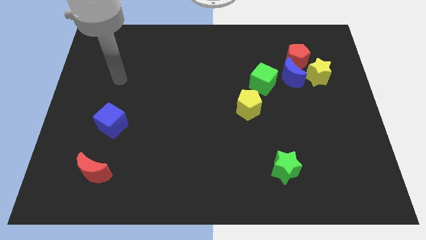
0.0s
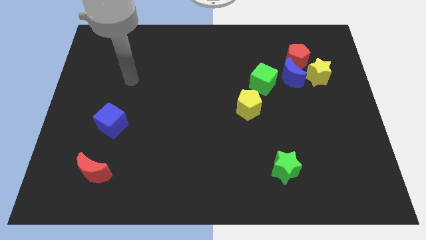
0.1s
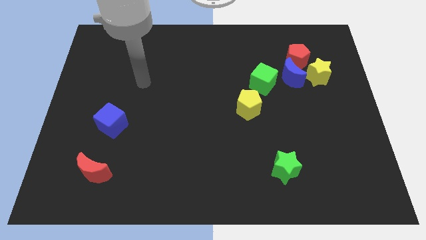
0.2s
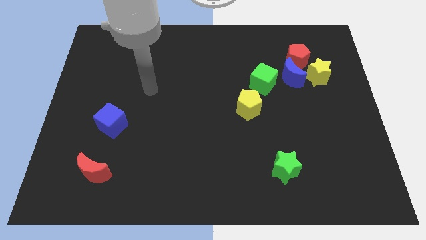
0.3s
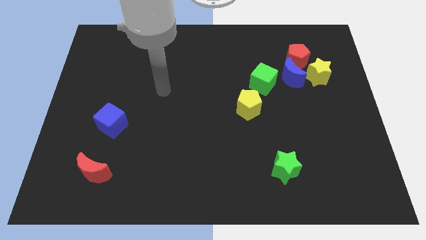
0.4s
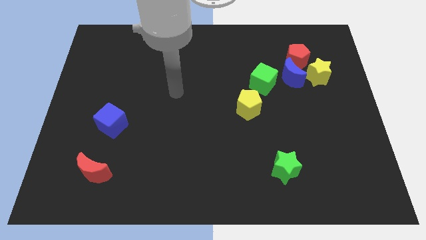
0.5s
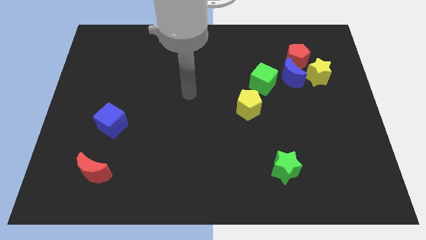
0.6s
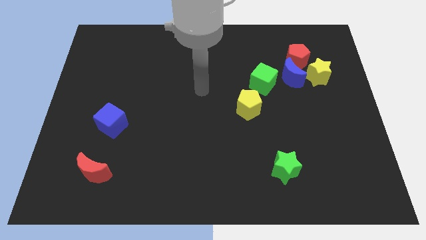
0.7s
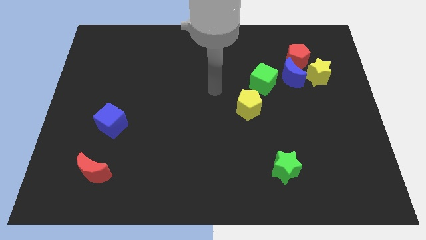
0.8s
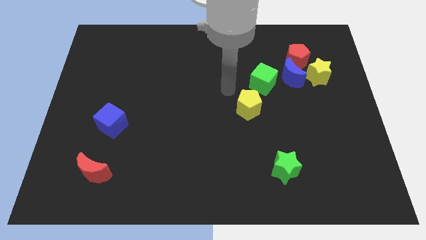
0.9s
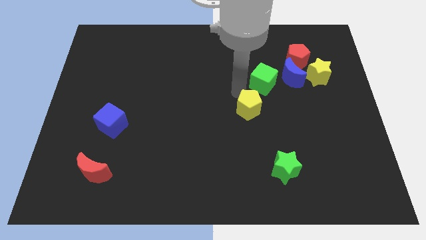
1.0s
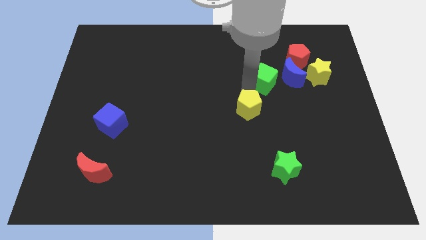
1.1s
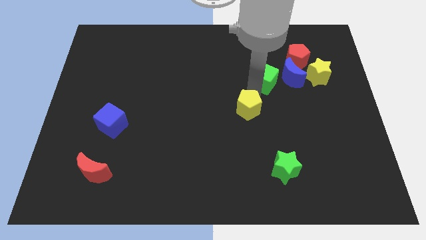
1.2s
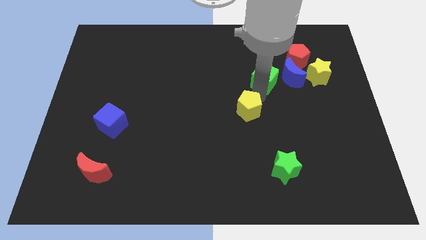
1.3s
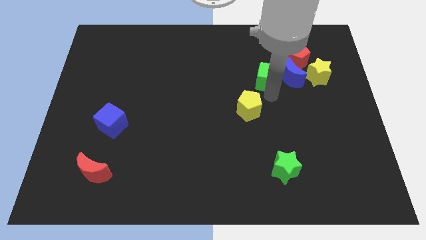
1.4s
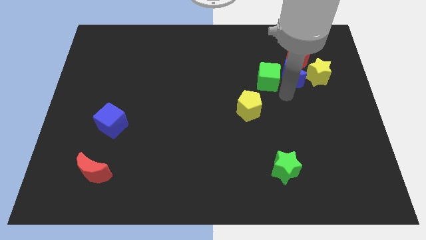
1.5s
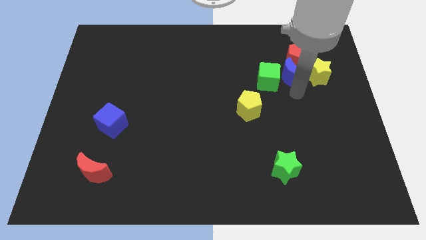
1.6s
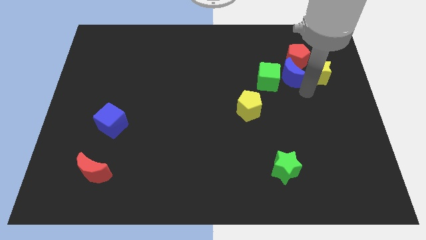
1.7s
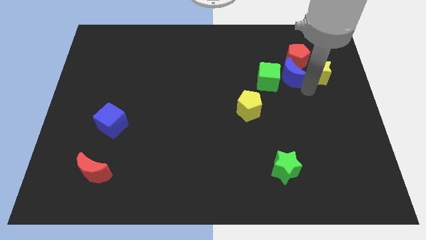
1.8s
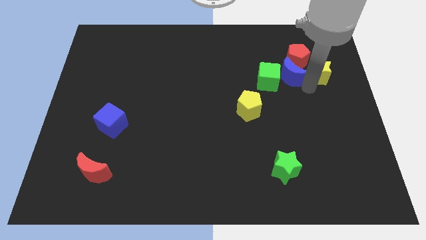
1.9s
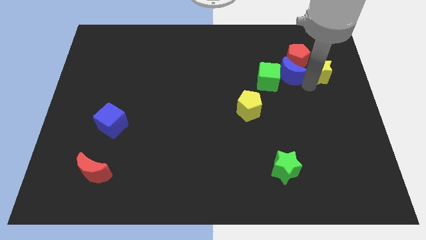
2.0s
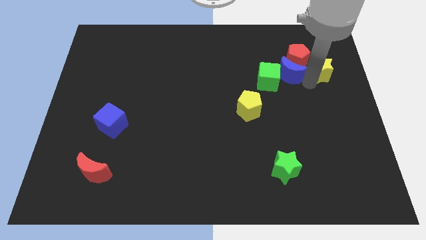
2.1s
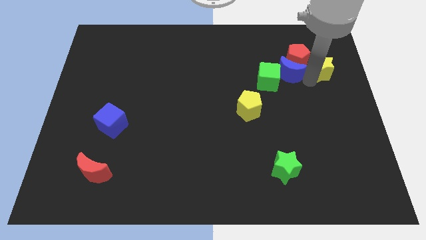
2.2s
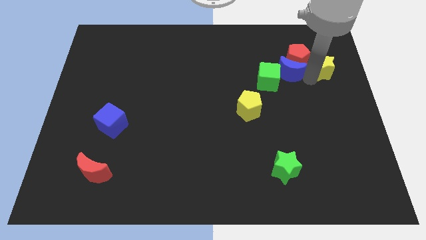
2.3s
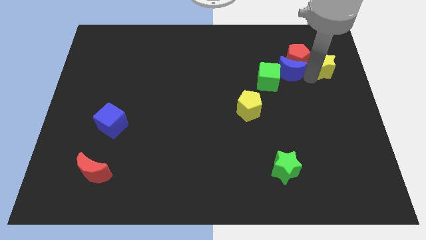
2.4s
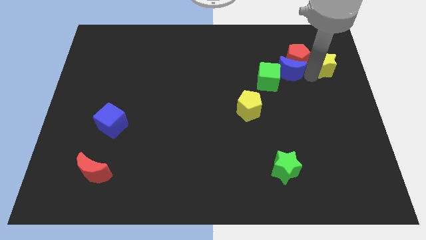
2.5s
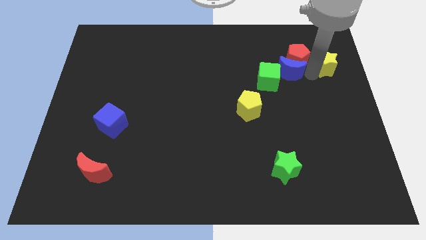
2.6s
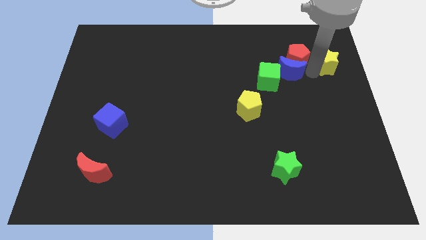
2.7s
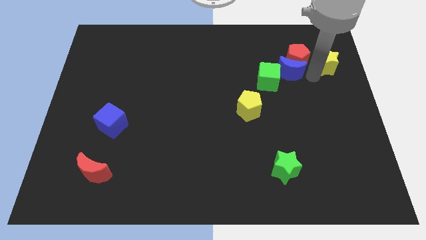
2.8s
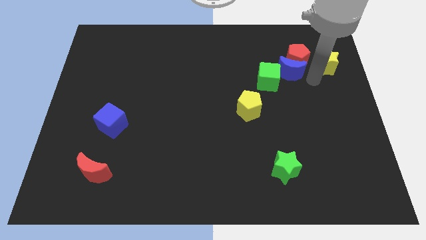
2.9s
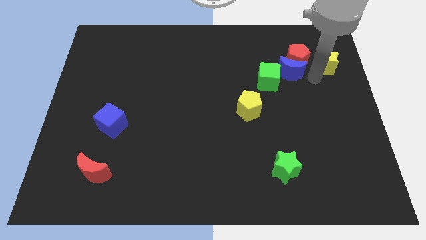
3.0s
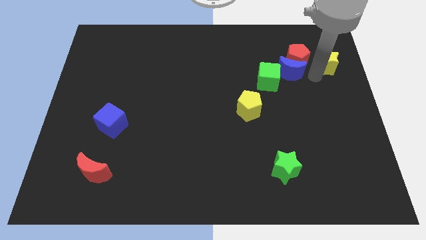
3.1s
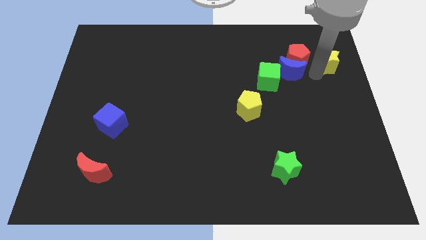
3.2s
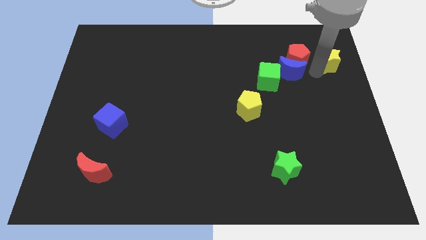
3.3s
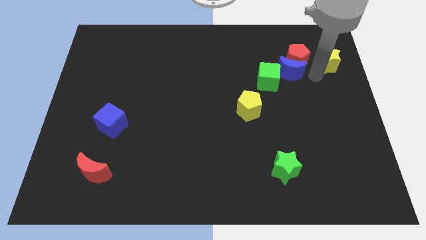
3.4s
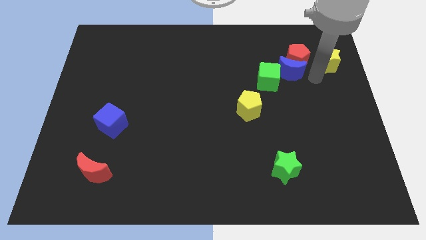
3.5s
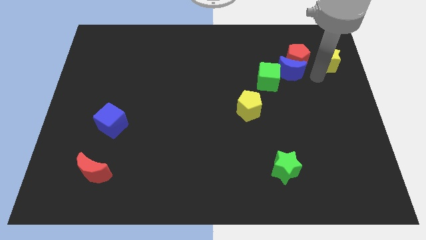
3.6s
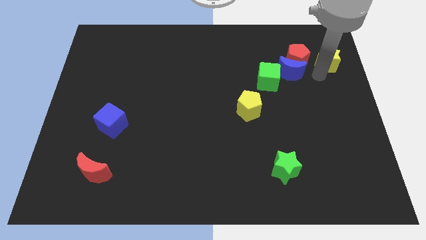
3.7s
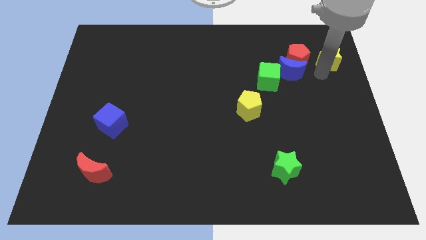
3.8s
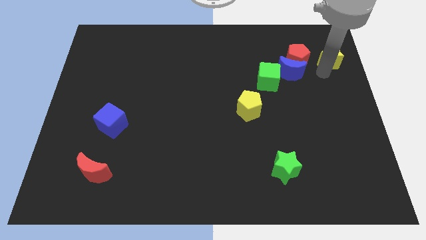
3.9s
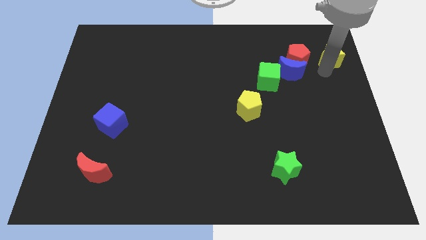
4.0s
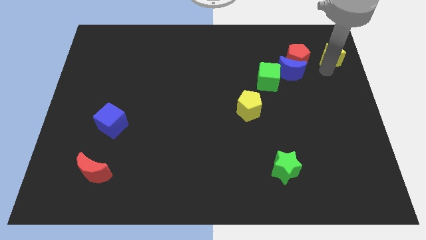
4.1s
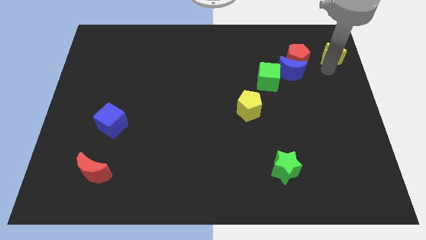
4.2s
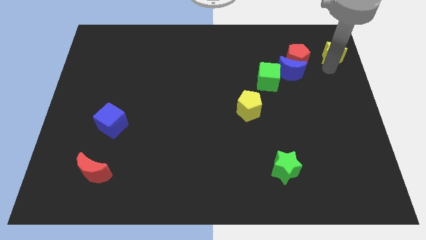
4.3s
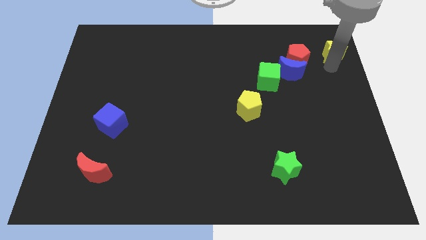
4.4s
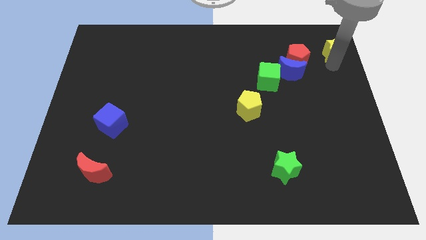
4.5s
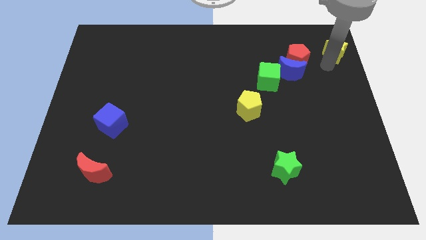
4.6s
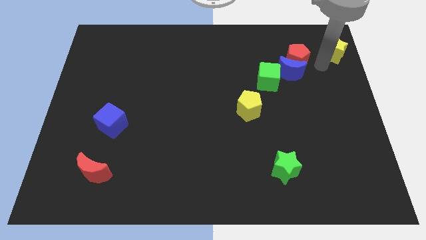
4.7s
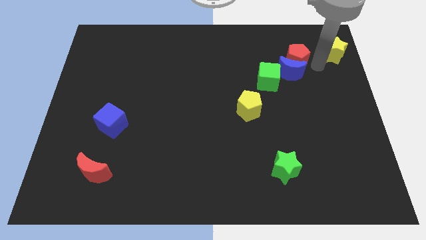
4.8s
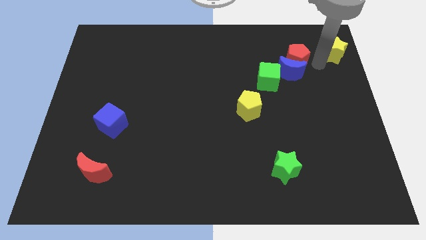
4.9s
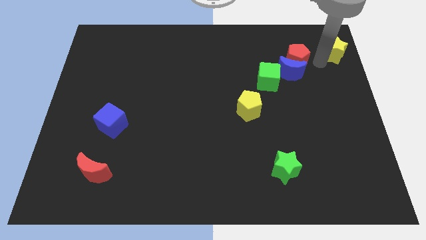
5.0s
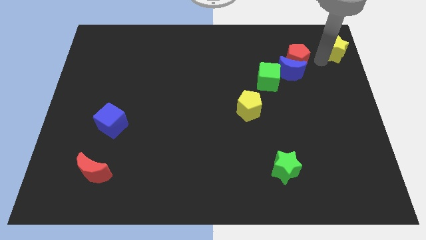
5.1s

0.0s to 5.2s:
push the yellow star to the upper right corner

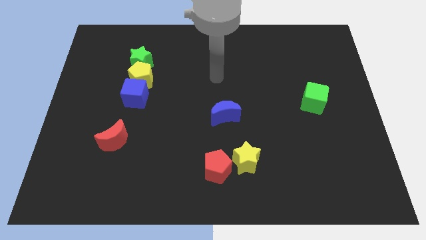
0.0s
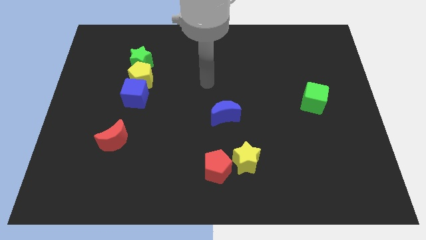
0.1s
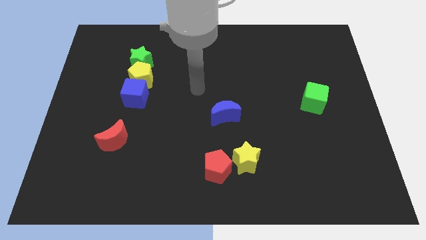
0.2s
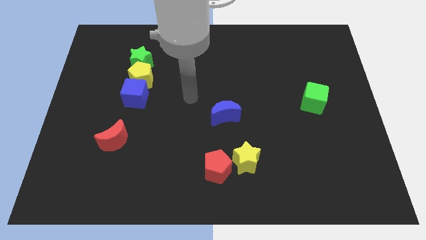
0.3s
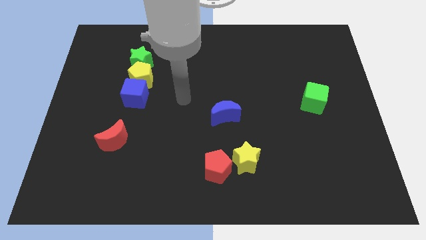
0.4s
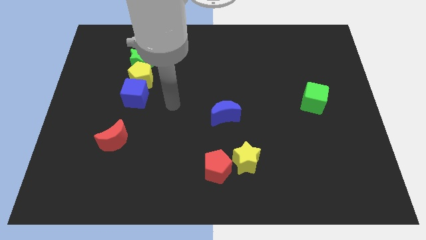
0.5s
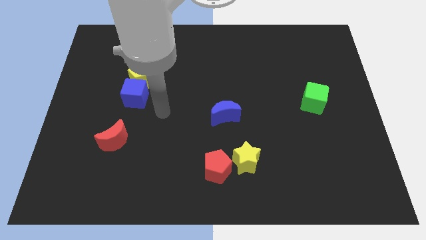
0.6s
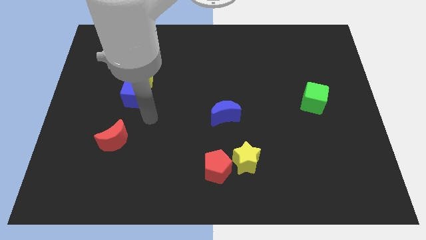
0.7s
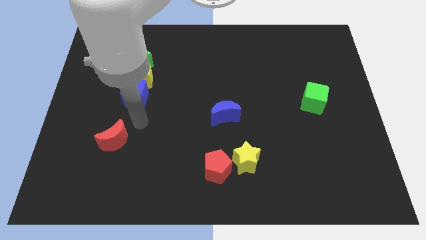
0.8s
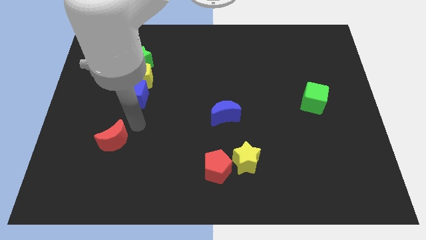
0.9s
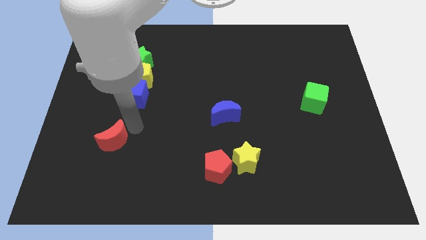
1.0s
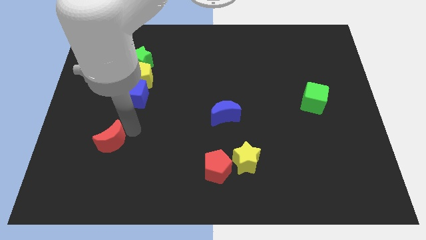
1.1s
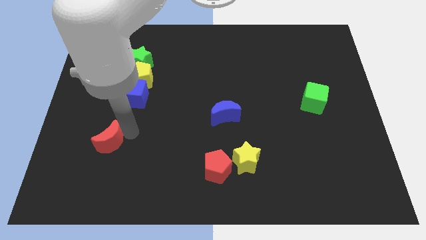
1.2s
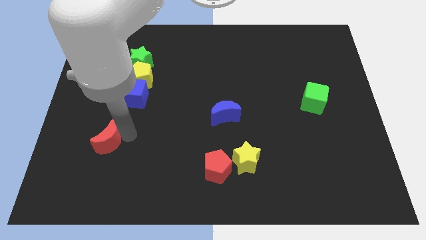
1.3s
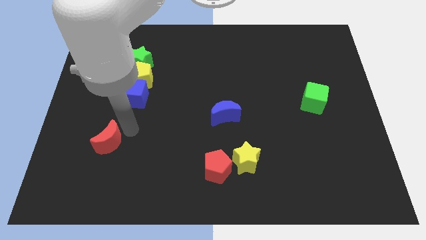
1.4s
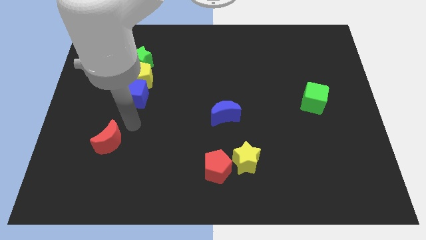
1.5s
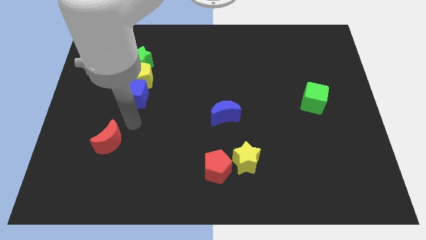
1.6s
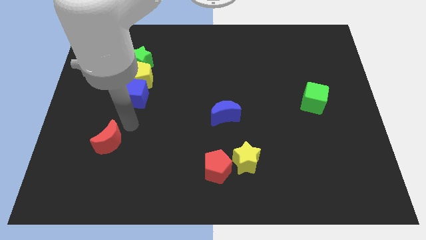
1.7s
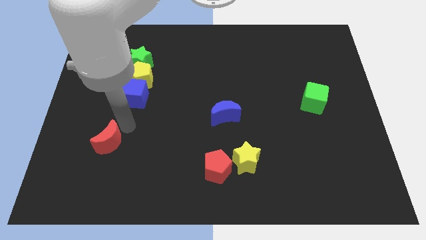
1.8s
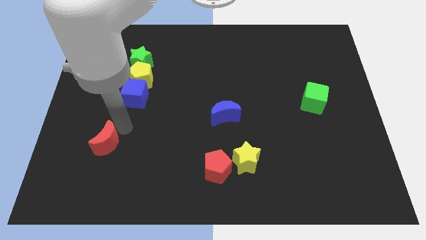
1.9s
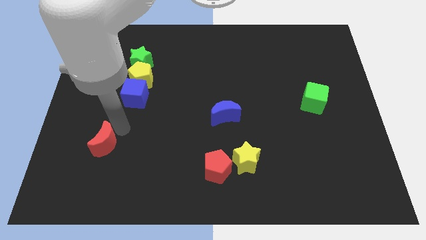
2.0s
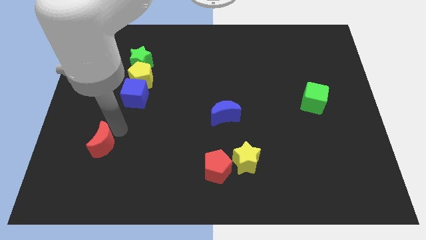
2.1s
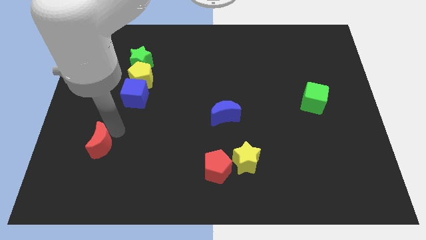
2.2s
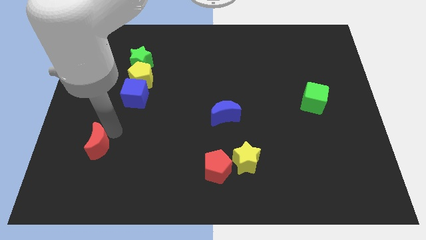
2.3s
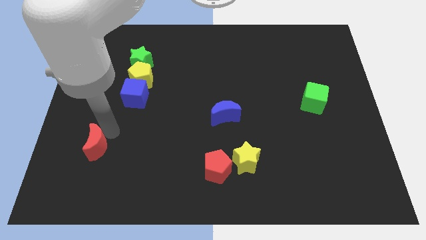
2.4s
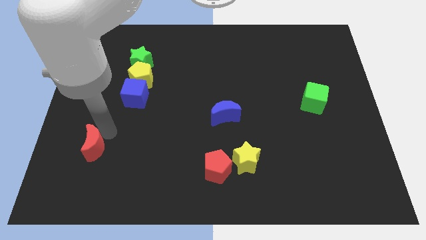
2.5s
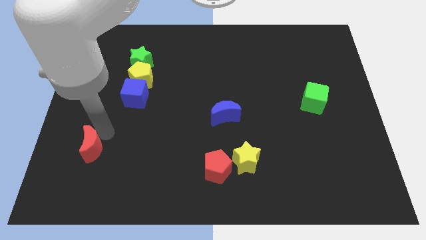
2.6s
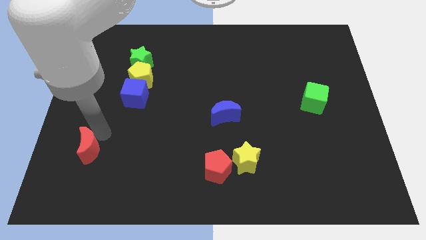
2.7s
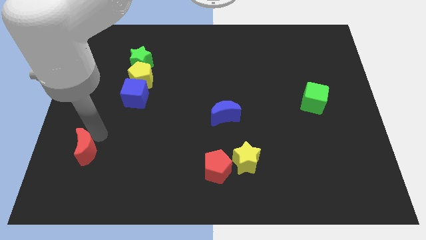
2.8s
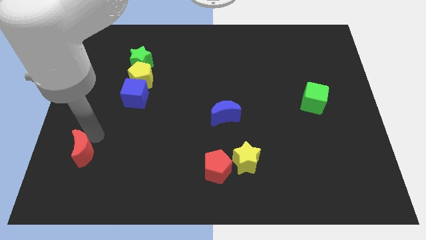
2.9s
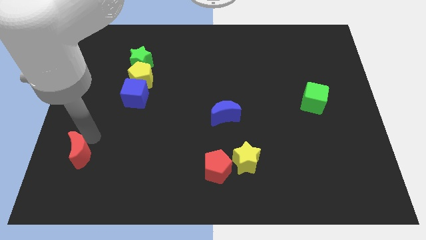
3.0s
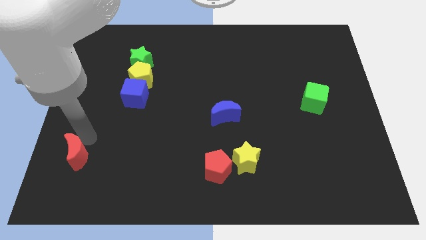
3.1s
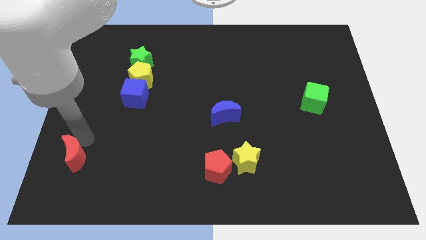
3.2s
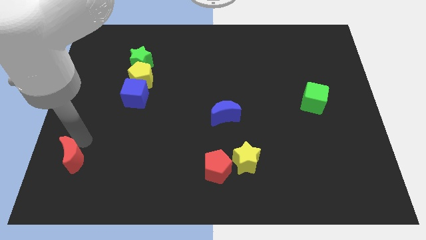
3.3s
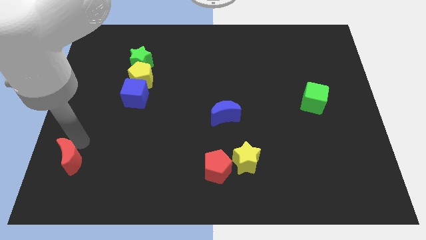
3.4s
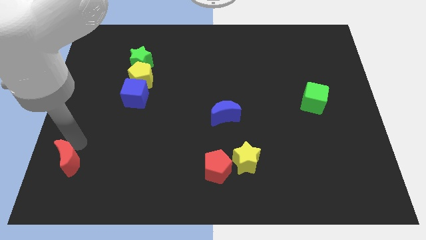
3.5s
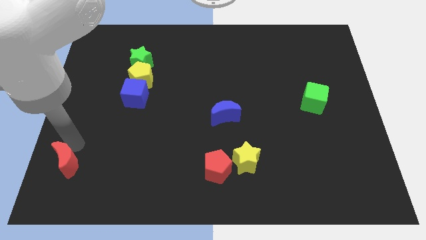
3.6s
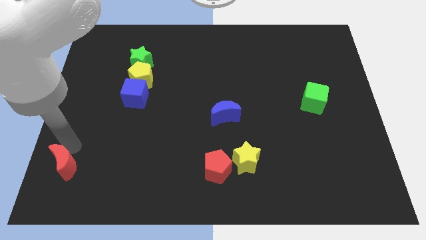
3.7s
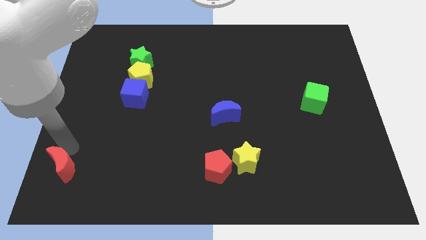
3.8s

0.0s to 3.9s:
put the red moon to the lower left corner
